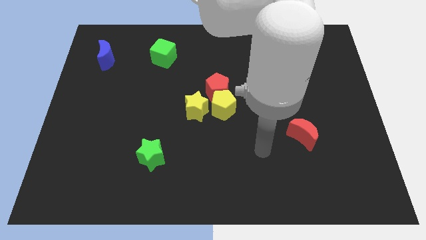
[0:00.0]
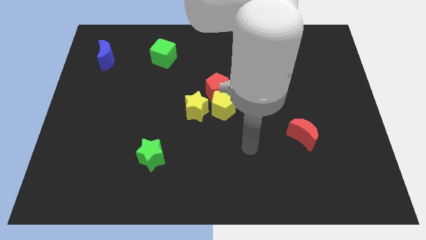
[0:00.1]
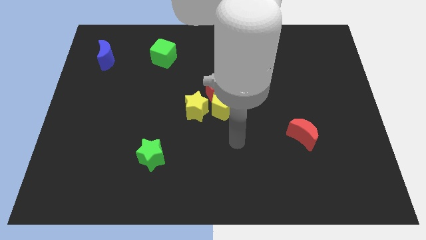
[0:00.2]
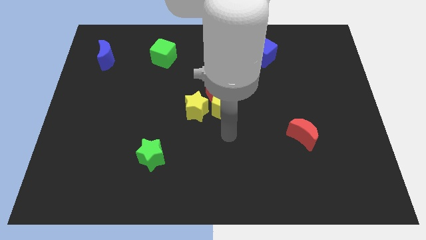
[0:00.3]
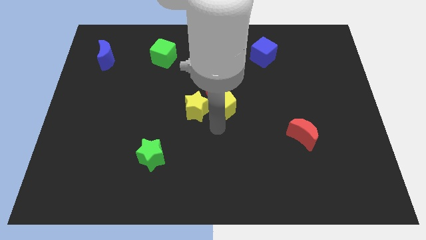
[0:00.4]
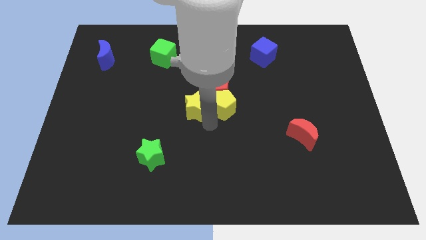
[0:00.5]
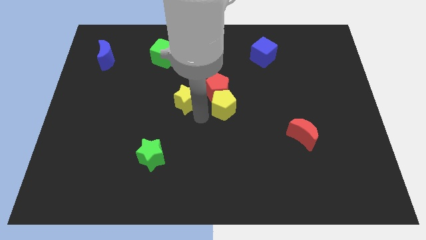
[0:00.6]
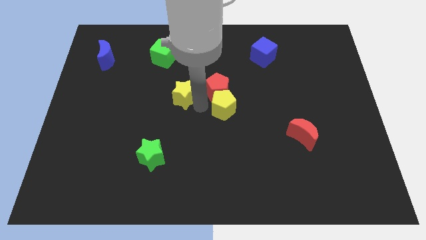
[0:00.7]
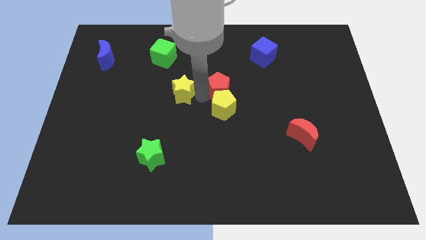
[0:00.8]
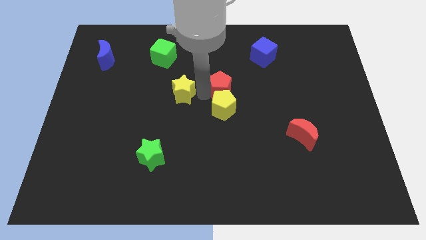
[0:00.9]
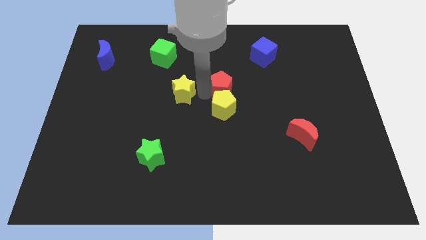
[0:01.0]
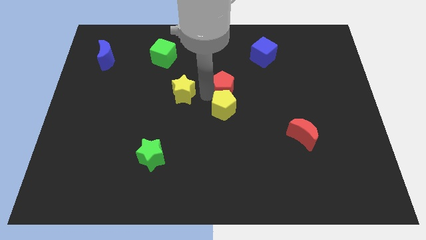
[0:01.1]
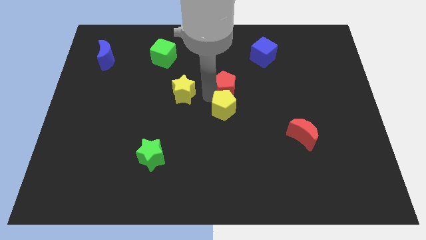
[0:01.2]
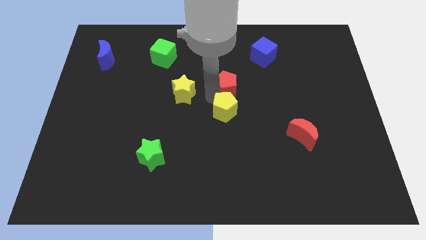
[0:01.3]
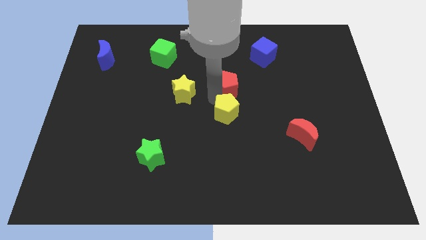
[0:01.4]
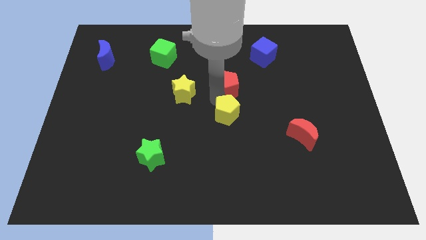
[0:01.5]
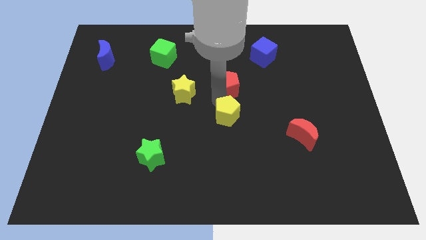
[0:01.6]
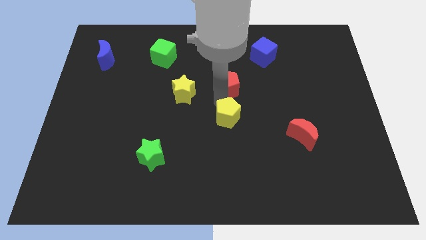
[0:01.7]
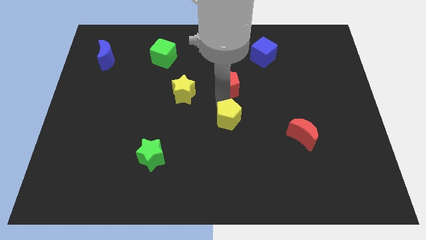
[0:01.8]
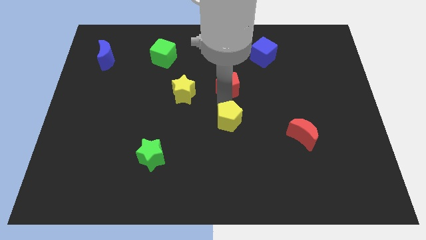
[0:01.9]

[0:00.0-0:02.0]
move the yellow pentagon away from the red pentagon and yellow star

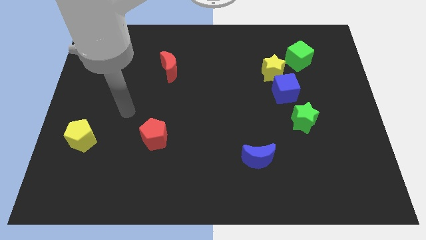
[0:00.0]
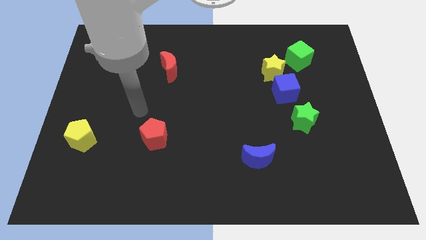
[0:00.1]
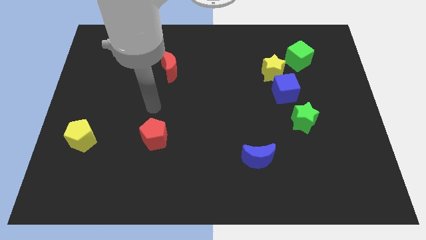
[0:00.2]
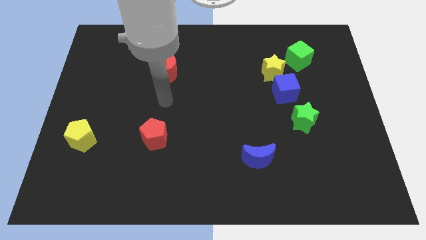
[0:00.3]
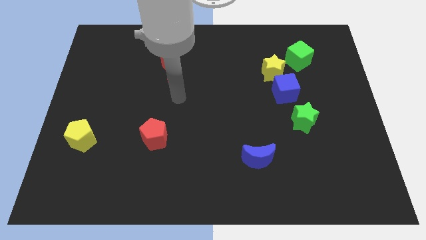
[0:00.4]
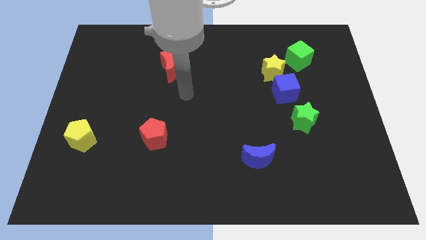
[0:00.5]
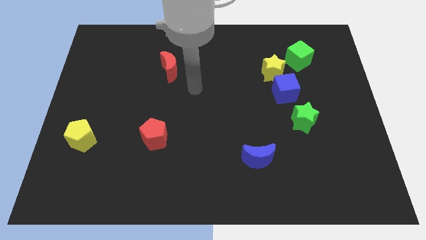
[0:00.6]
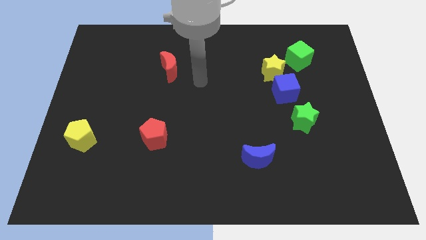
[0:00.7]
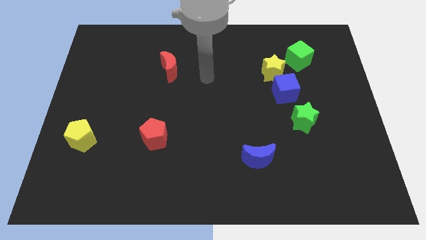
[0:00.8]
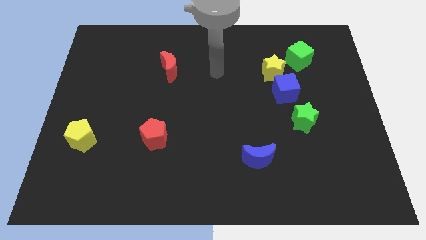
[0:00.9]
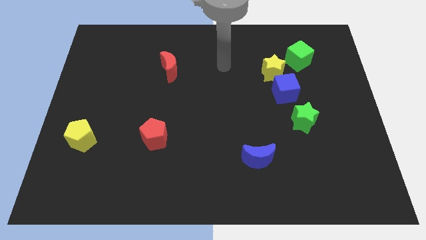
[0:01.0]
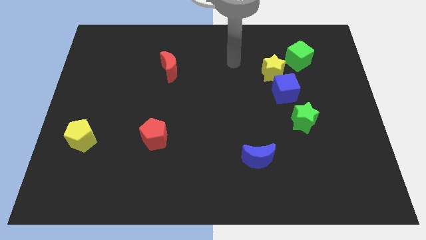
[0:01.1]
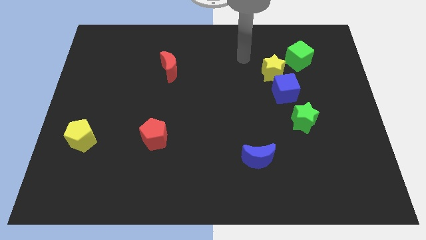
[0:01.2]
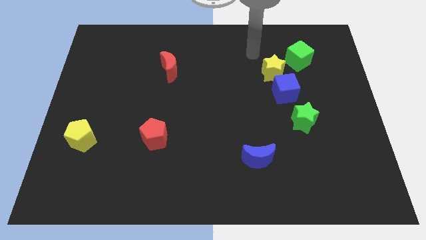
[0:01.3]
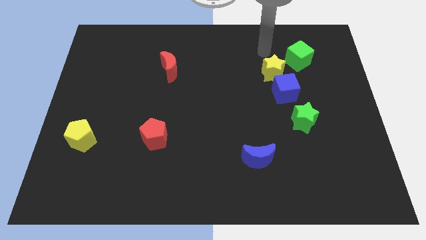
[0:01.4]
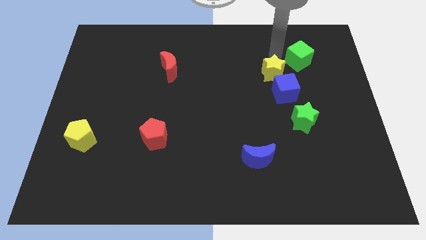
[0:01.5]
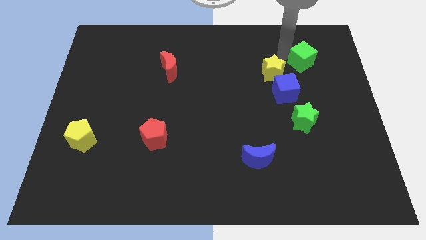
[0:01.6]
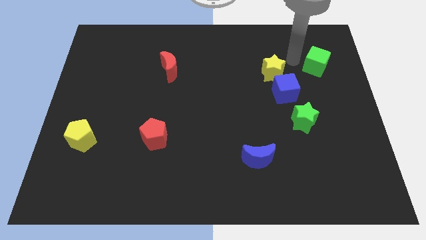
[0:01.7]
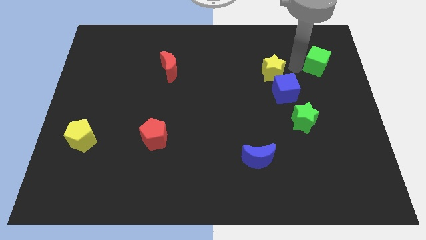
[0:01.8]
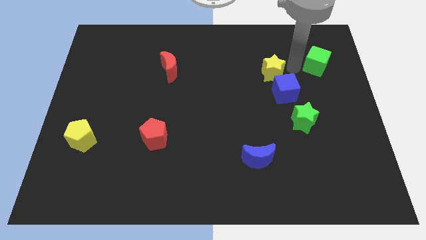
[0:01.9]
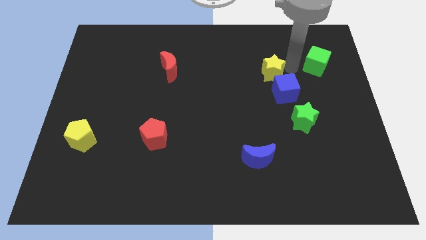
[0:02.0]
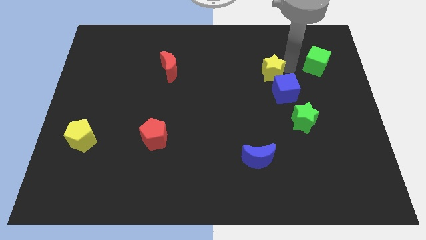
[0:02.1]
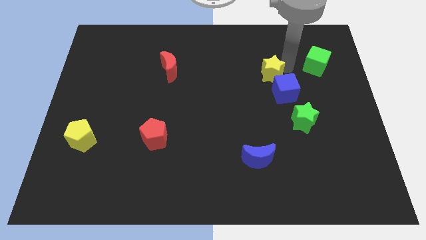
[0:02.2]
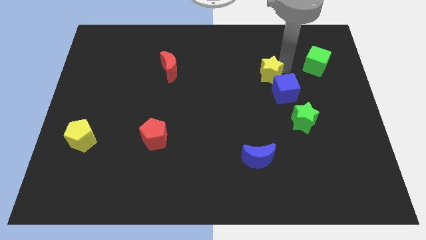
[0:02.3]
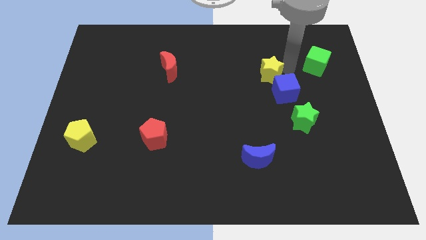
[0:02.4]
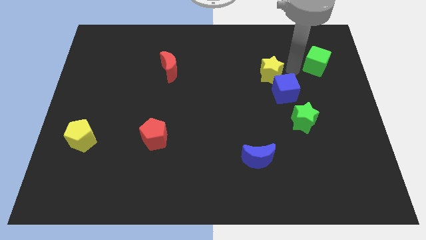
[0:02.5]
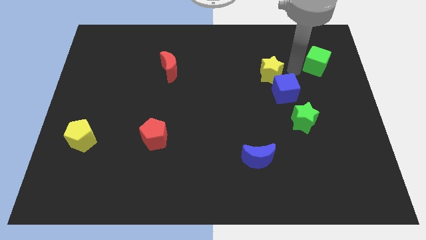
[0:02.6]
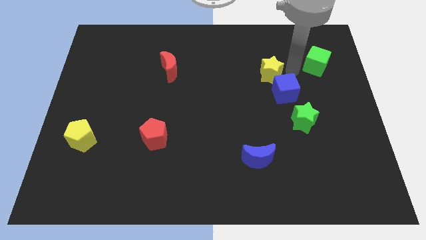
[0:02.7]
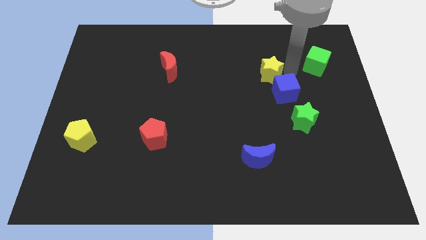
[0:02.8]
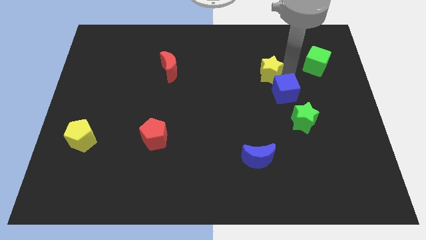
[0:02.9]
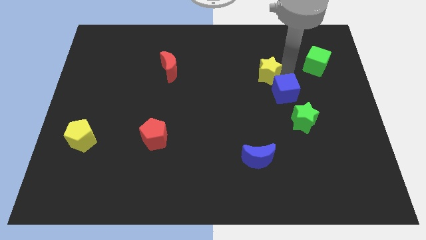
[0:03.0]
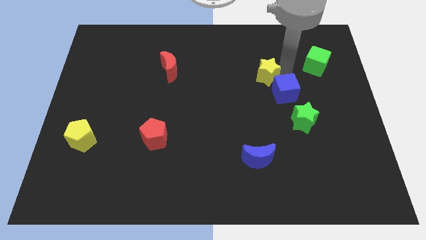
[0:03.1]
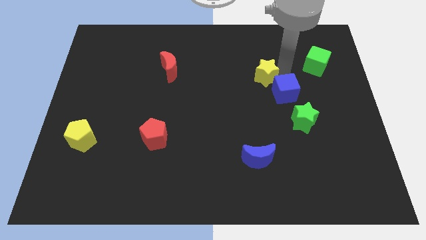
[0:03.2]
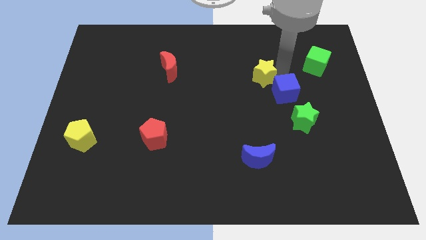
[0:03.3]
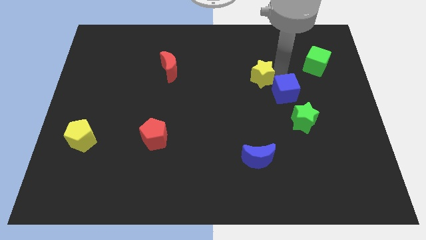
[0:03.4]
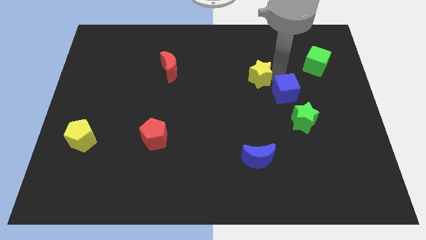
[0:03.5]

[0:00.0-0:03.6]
pull the yellow star apart from the blue cube and green cube

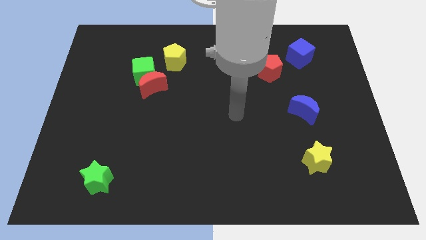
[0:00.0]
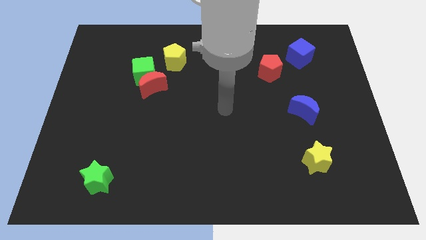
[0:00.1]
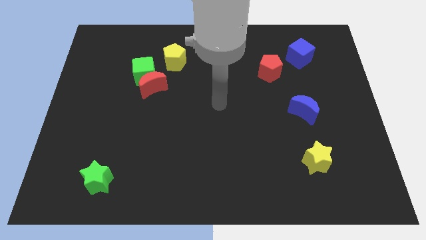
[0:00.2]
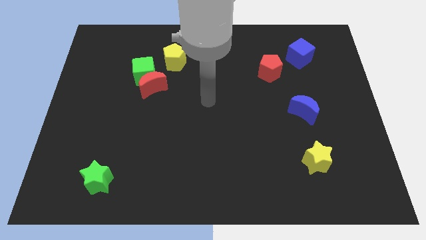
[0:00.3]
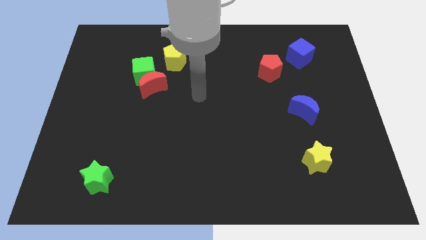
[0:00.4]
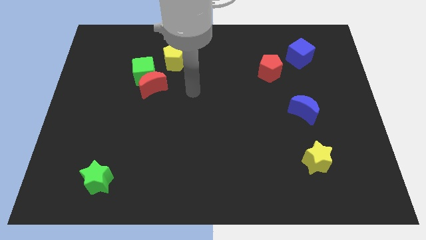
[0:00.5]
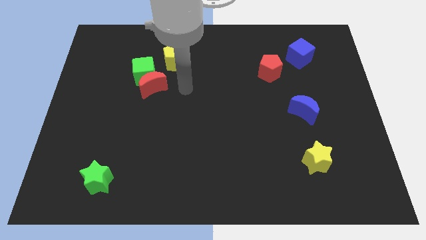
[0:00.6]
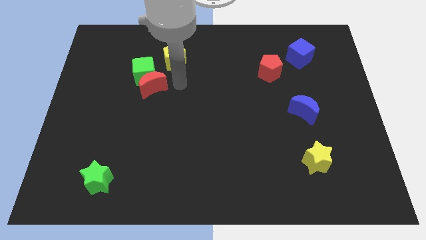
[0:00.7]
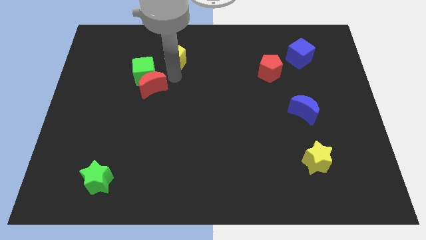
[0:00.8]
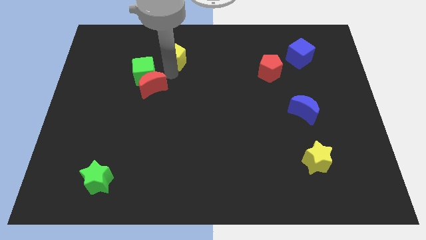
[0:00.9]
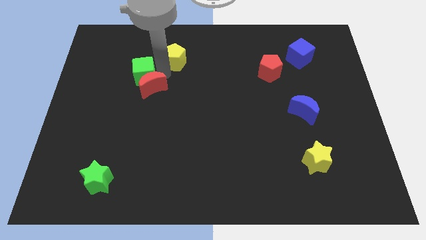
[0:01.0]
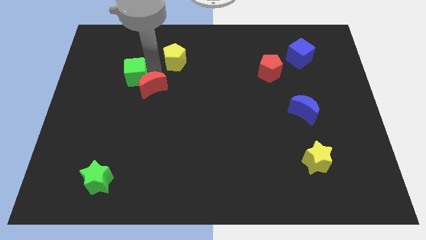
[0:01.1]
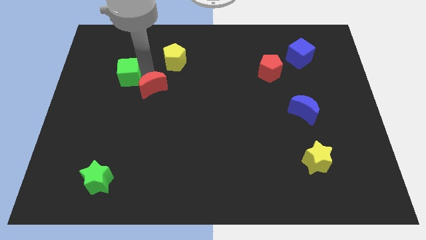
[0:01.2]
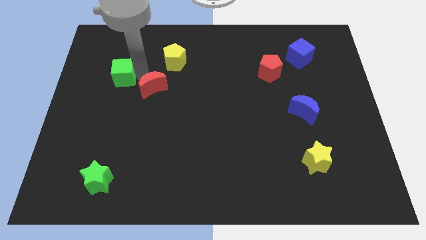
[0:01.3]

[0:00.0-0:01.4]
move the green cube away from the red moon and yellow pentagon

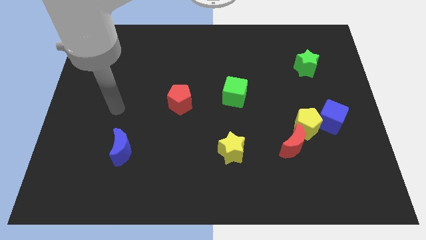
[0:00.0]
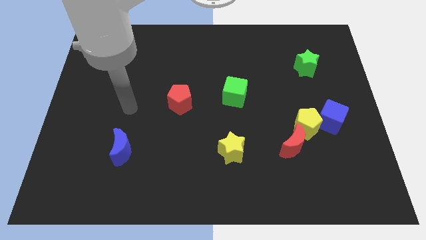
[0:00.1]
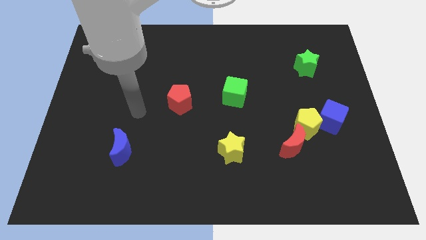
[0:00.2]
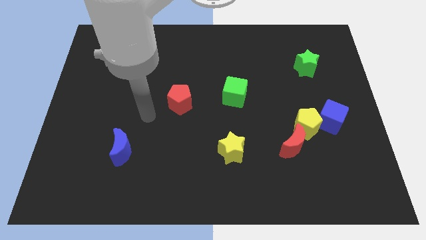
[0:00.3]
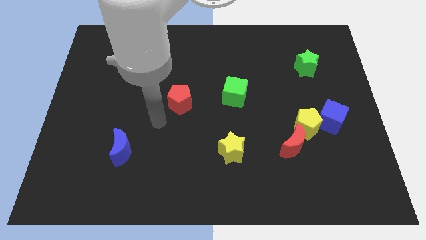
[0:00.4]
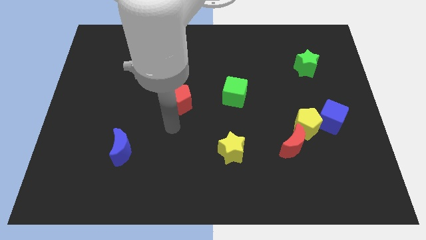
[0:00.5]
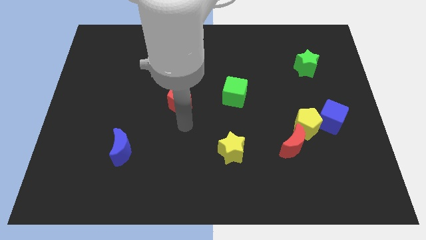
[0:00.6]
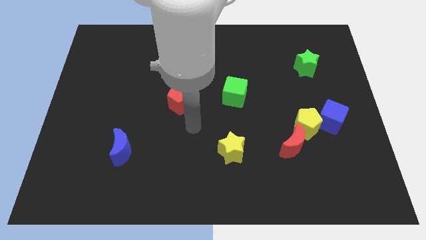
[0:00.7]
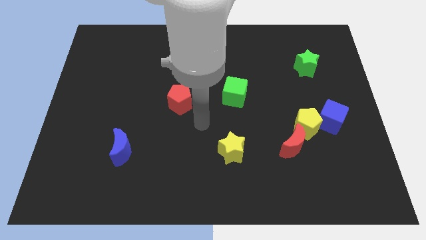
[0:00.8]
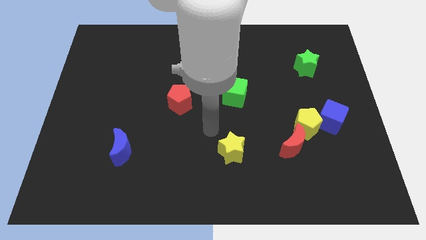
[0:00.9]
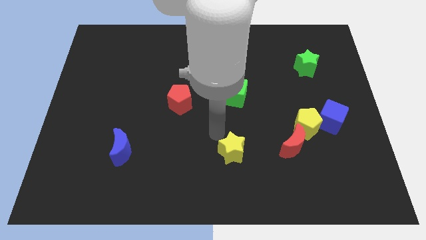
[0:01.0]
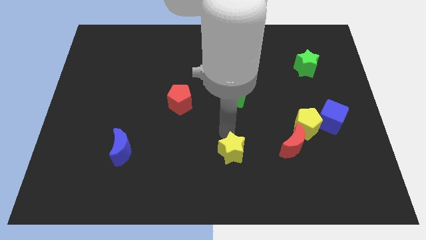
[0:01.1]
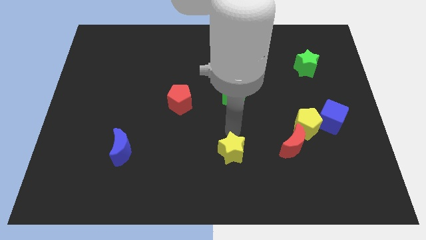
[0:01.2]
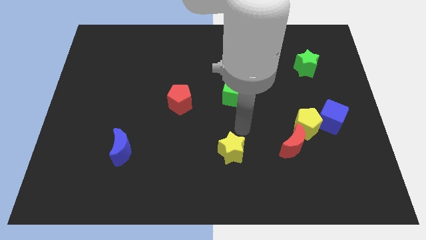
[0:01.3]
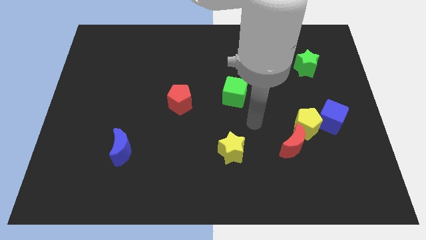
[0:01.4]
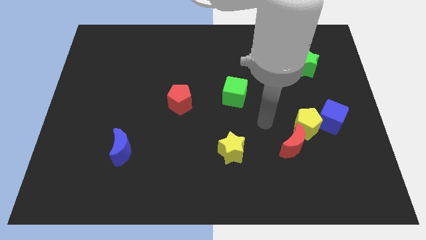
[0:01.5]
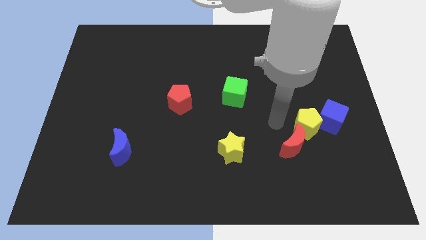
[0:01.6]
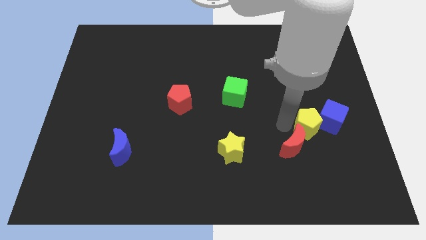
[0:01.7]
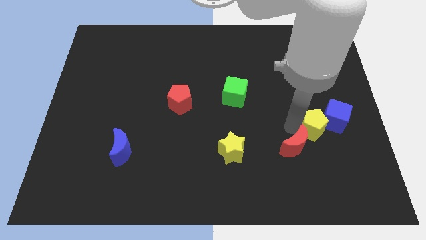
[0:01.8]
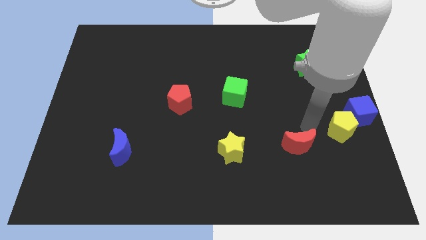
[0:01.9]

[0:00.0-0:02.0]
separate the red moon from the yellow pentagon

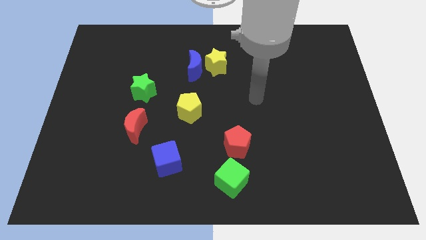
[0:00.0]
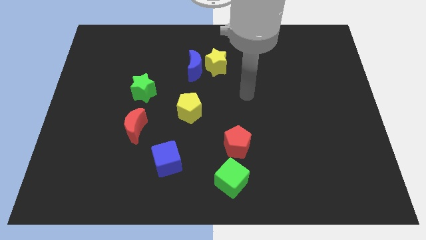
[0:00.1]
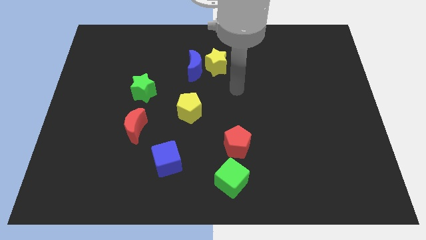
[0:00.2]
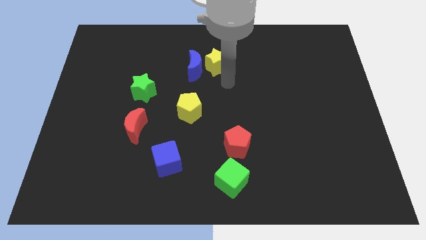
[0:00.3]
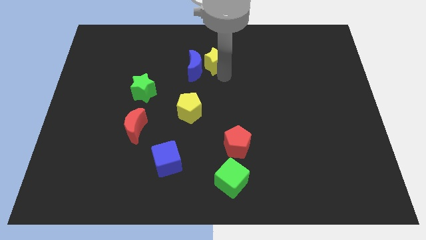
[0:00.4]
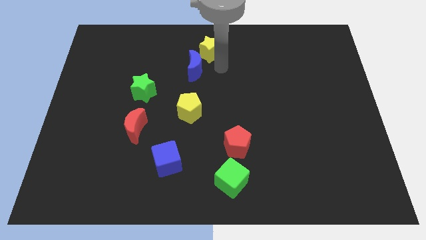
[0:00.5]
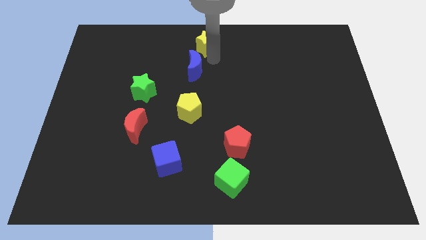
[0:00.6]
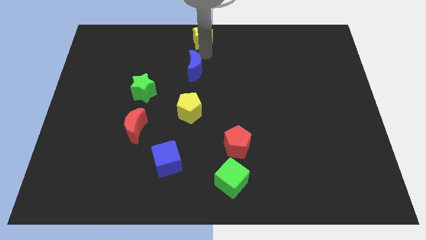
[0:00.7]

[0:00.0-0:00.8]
pull the blue moon apart from the yellow star
